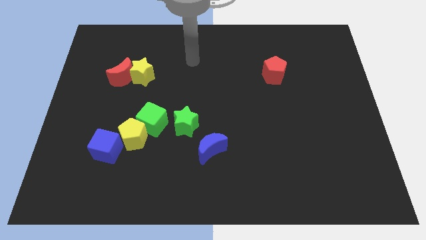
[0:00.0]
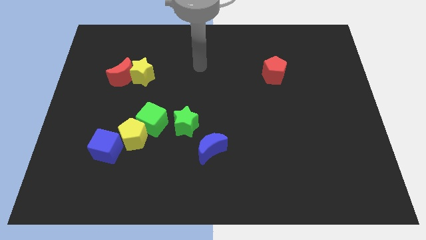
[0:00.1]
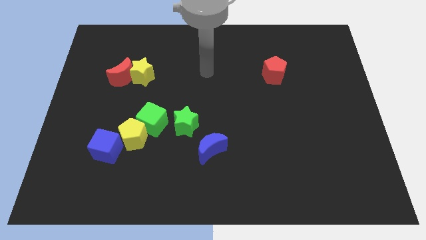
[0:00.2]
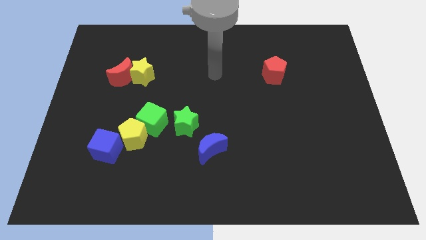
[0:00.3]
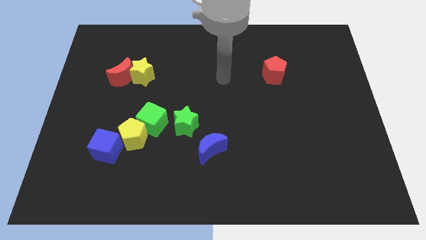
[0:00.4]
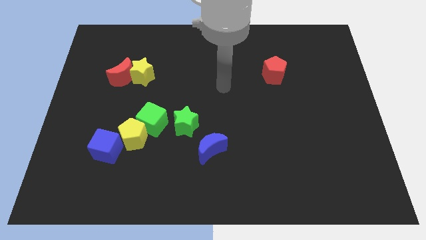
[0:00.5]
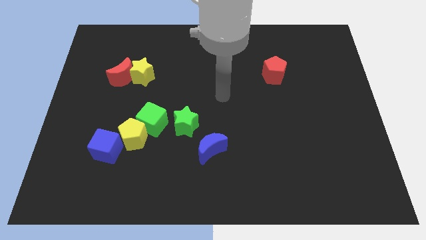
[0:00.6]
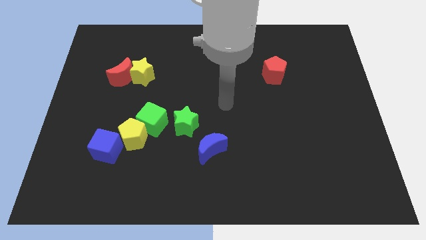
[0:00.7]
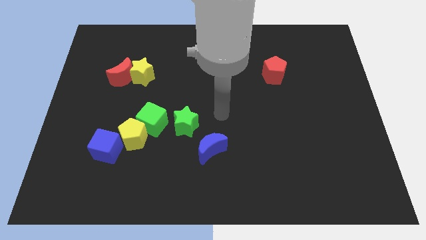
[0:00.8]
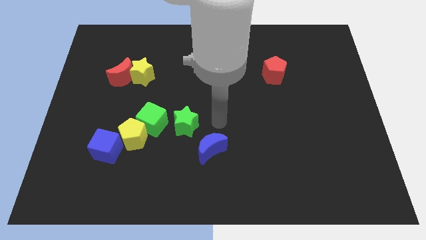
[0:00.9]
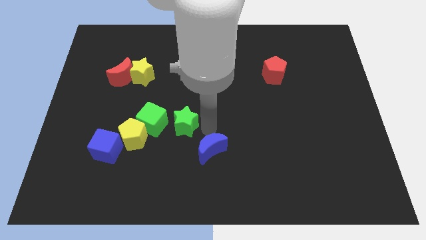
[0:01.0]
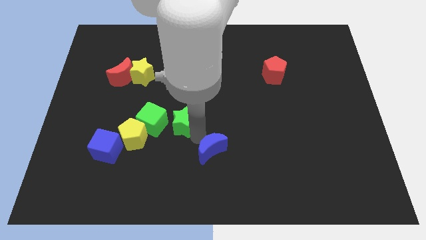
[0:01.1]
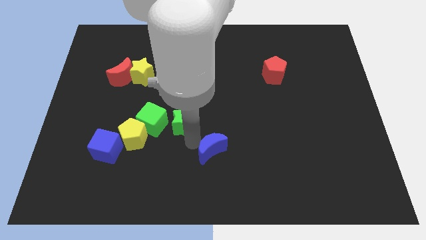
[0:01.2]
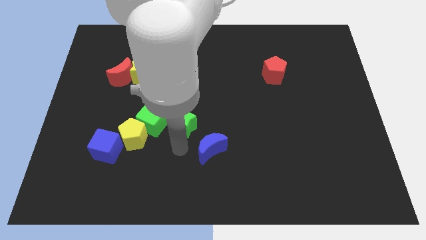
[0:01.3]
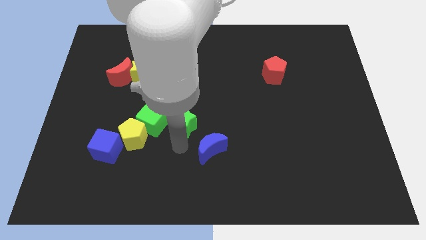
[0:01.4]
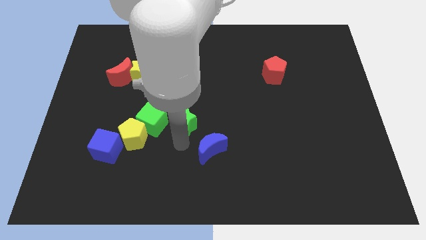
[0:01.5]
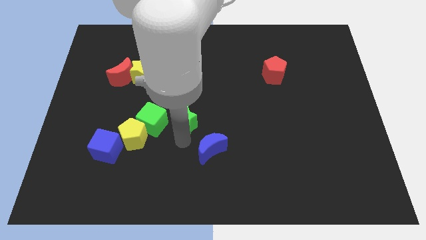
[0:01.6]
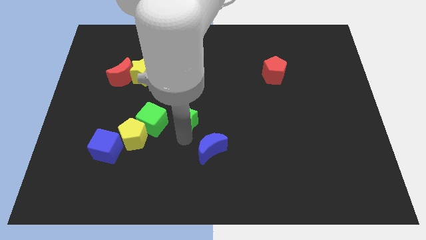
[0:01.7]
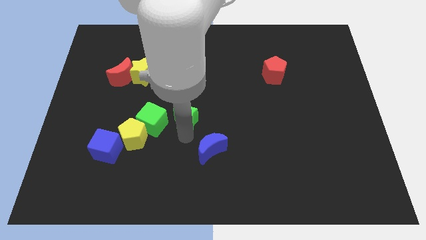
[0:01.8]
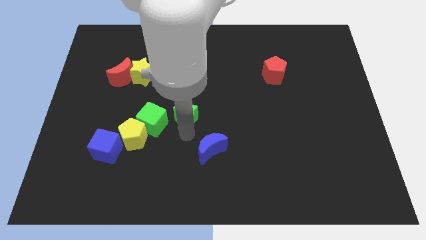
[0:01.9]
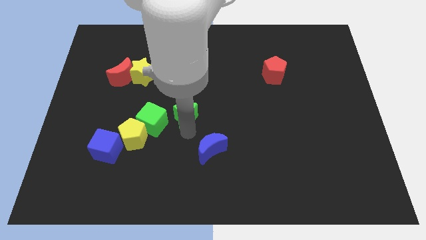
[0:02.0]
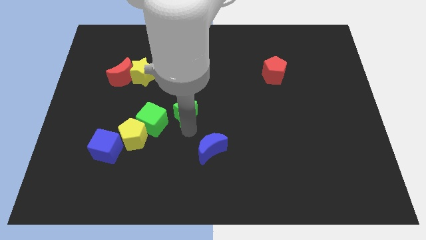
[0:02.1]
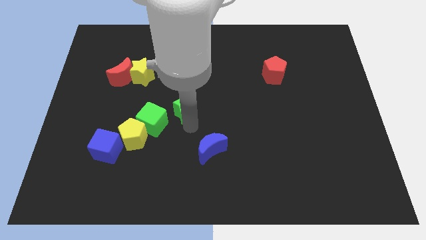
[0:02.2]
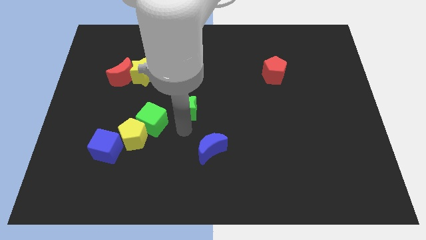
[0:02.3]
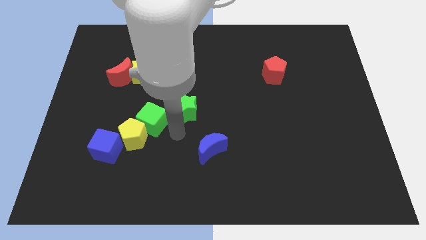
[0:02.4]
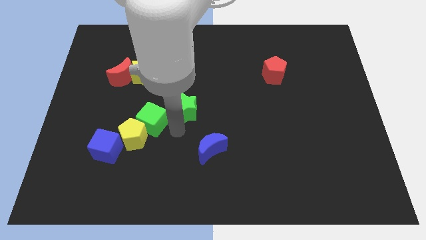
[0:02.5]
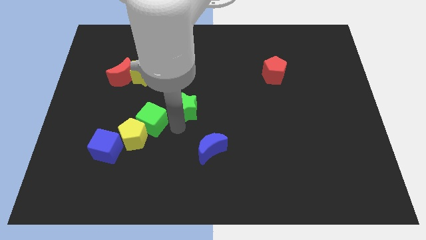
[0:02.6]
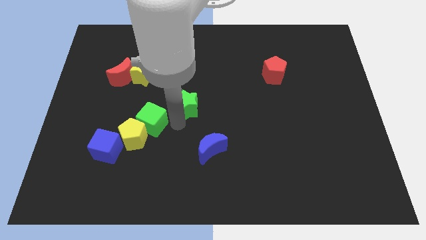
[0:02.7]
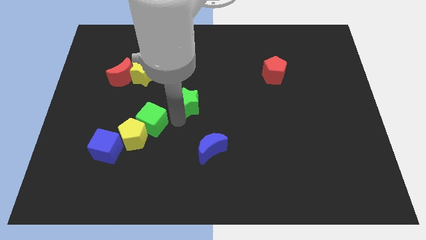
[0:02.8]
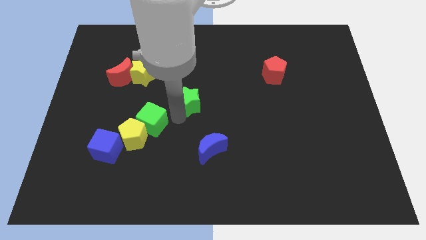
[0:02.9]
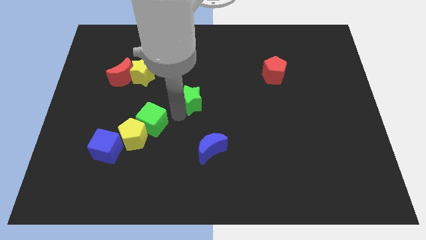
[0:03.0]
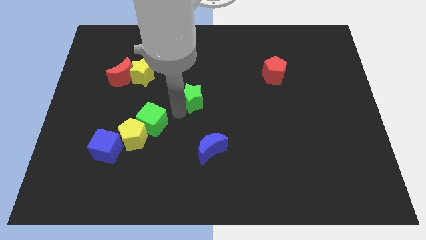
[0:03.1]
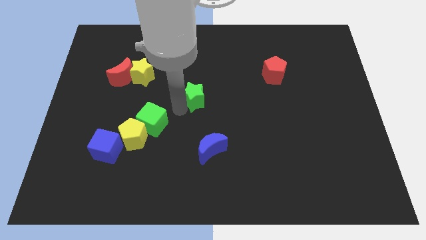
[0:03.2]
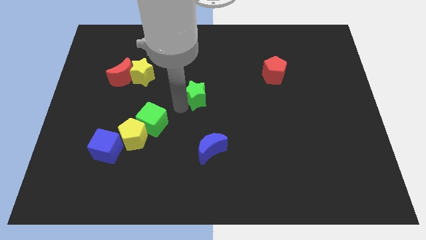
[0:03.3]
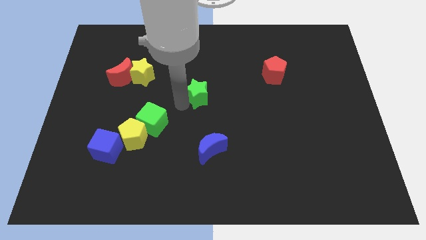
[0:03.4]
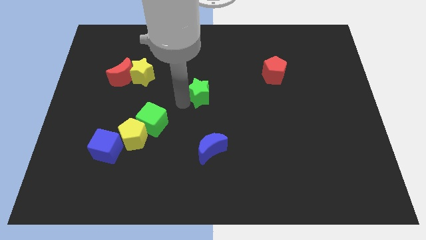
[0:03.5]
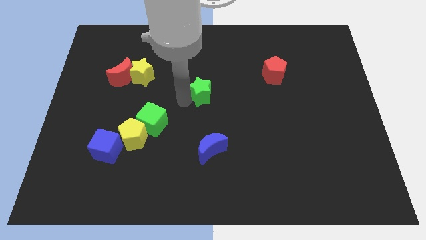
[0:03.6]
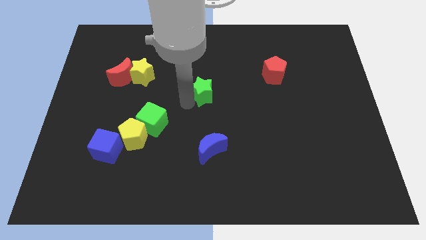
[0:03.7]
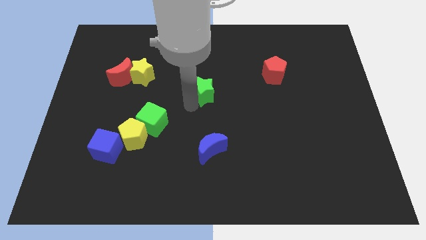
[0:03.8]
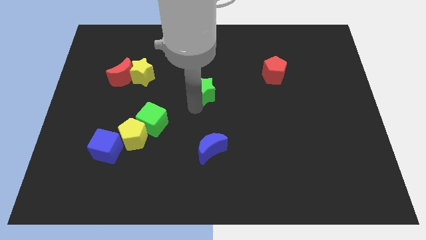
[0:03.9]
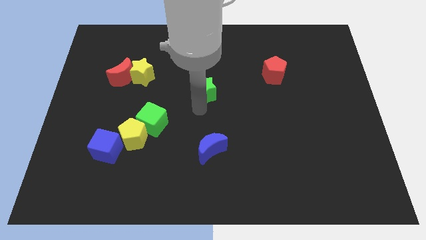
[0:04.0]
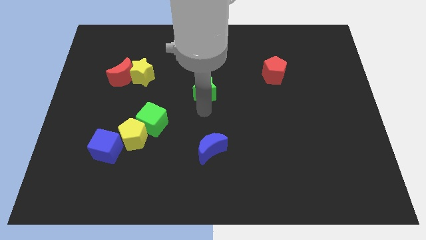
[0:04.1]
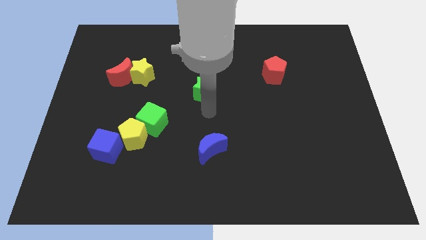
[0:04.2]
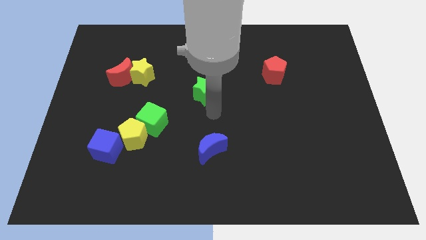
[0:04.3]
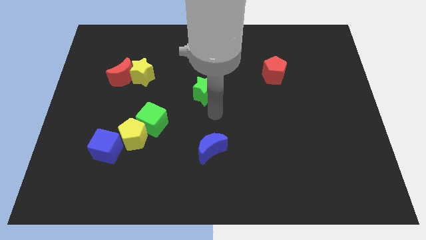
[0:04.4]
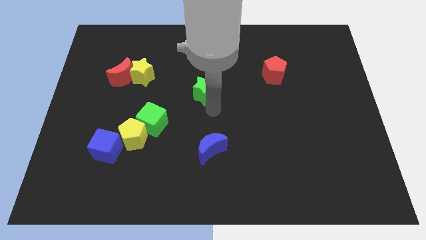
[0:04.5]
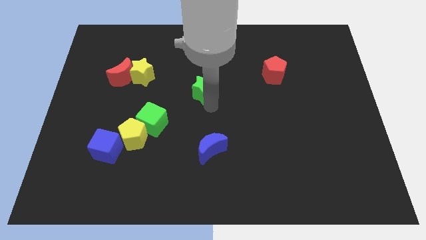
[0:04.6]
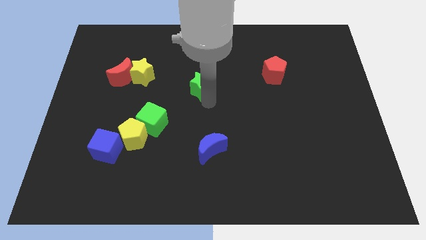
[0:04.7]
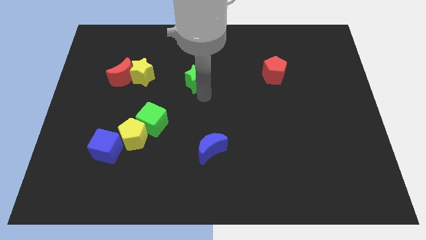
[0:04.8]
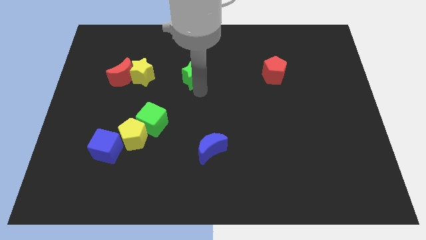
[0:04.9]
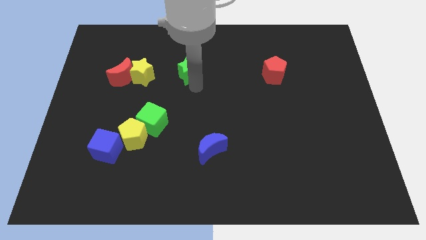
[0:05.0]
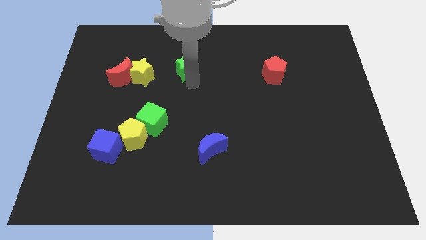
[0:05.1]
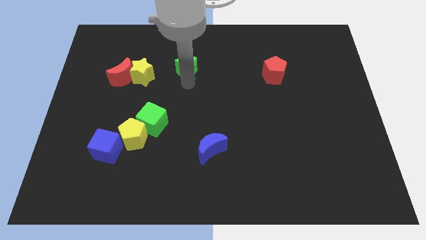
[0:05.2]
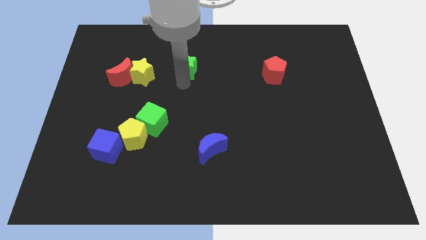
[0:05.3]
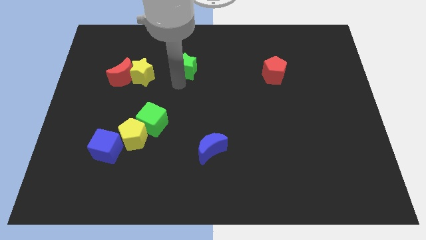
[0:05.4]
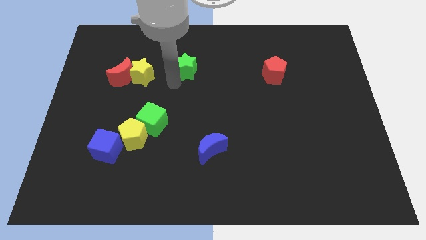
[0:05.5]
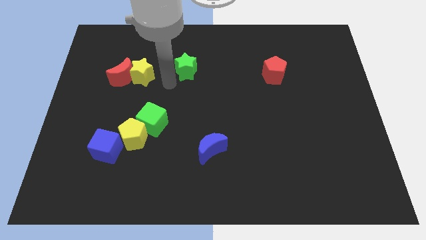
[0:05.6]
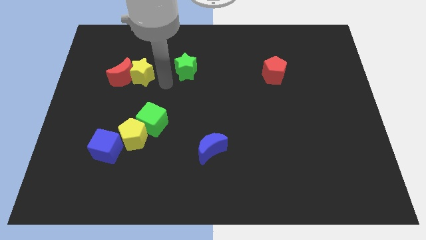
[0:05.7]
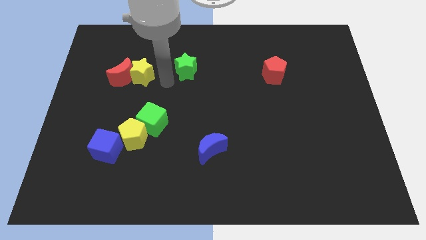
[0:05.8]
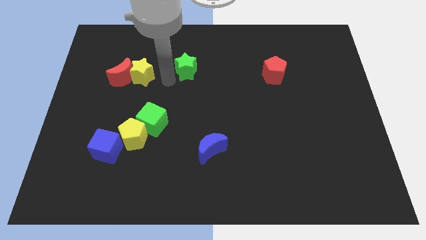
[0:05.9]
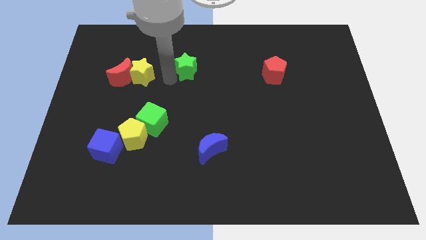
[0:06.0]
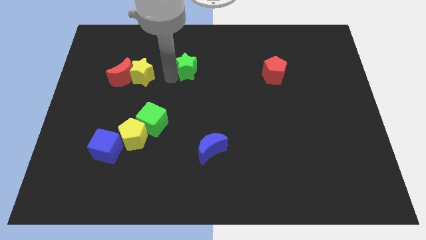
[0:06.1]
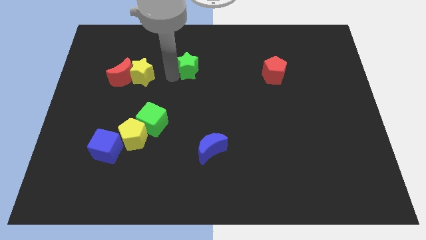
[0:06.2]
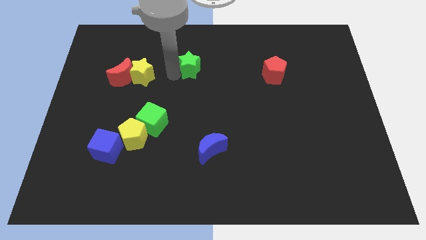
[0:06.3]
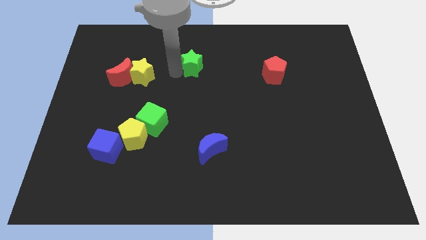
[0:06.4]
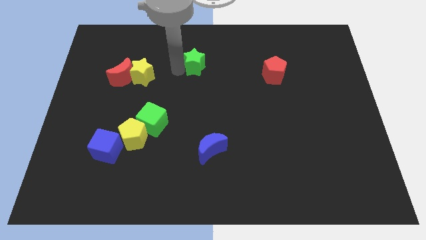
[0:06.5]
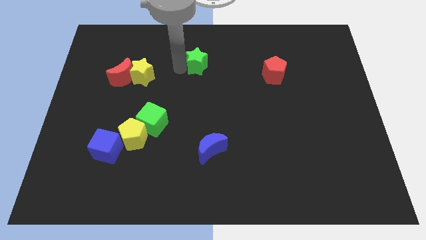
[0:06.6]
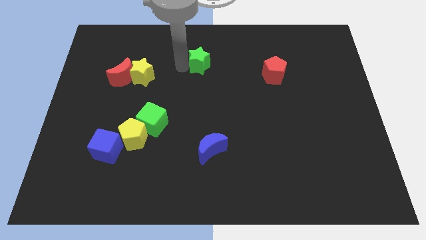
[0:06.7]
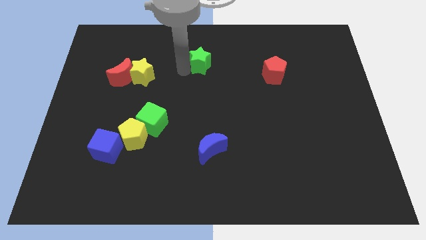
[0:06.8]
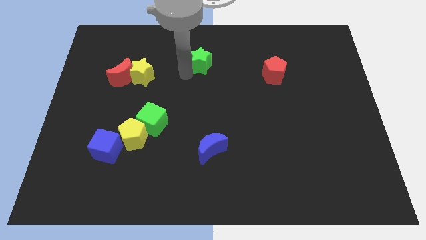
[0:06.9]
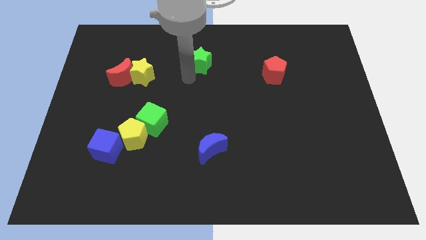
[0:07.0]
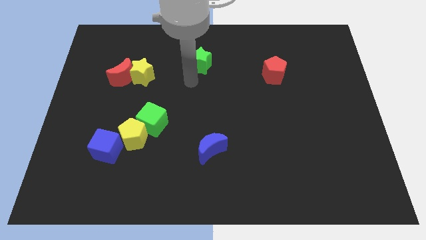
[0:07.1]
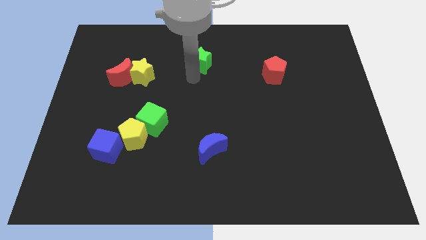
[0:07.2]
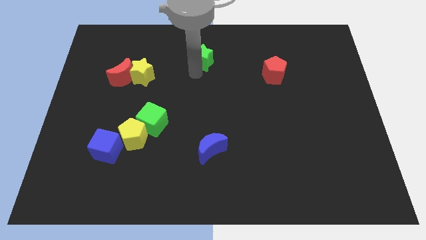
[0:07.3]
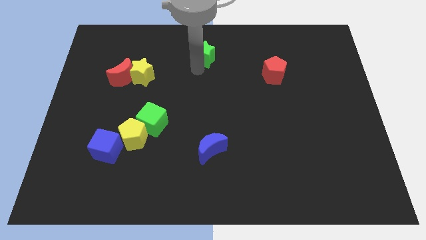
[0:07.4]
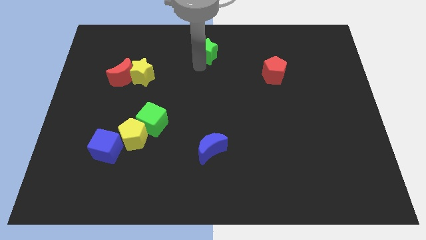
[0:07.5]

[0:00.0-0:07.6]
move the green star to the top side
